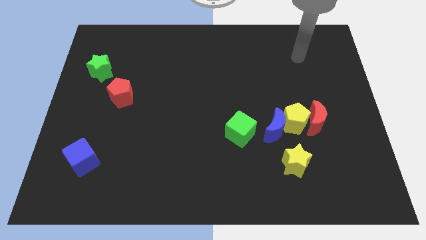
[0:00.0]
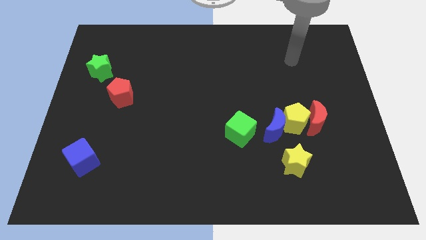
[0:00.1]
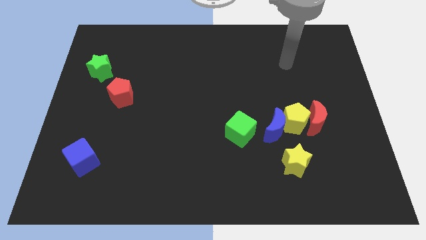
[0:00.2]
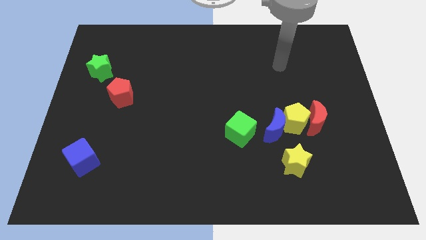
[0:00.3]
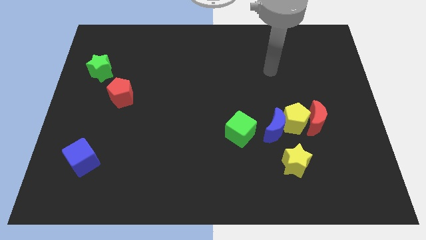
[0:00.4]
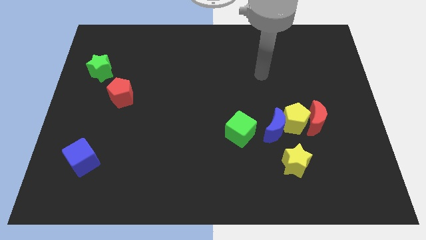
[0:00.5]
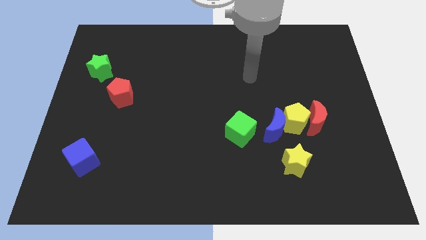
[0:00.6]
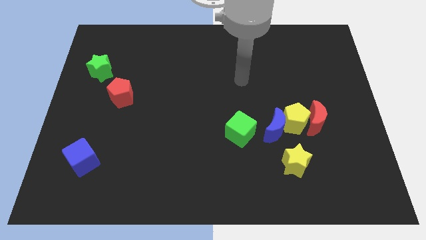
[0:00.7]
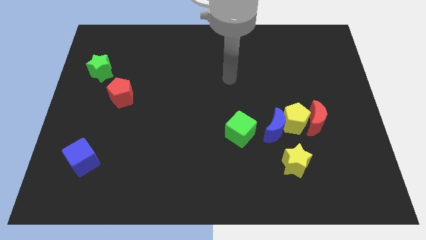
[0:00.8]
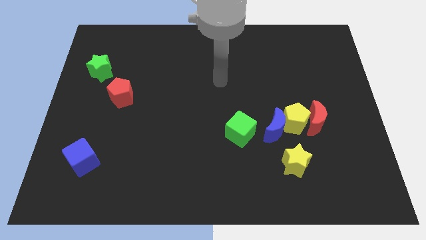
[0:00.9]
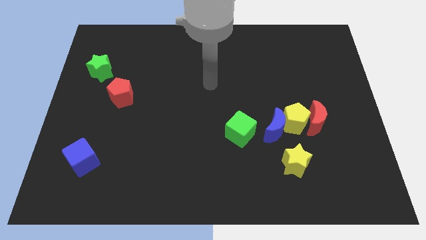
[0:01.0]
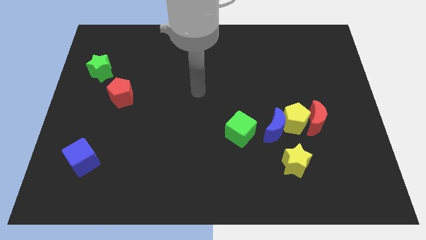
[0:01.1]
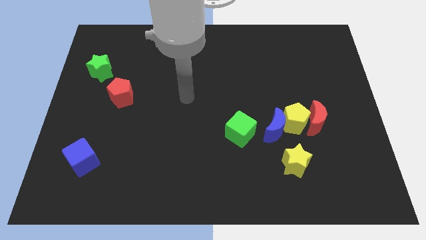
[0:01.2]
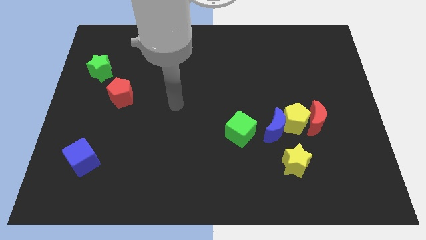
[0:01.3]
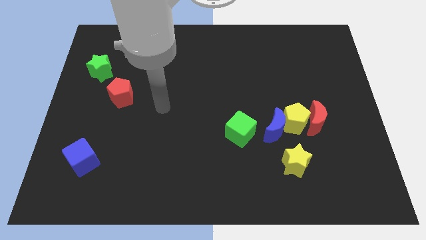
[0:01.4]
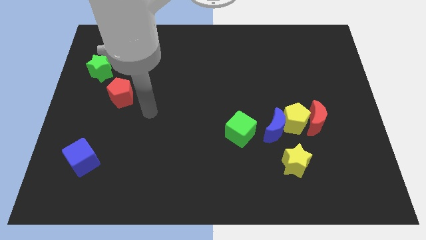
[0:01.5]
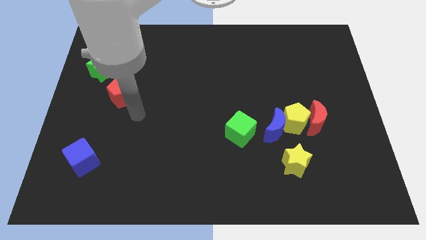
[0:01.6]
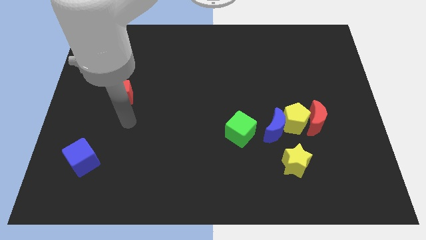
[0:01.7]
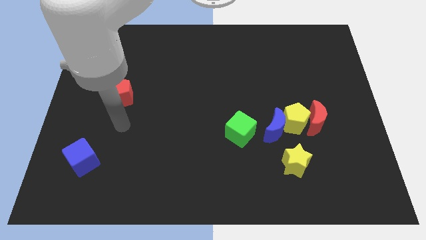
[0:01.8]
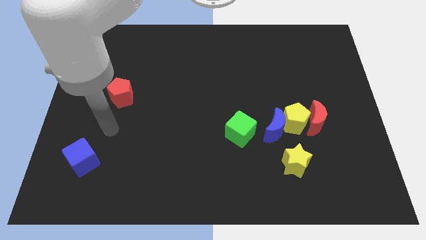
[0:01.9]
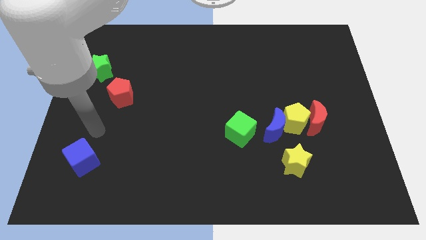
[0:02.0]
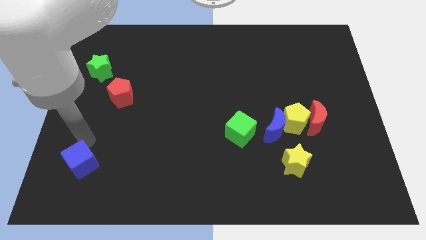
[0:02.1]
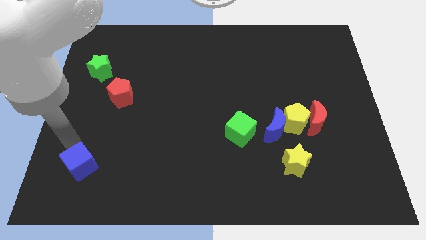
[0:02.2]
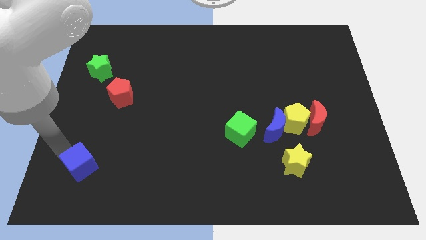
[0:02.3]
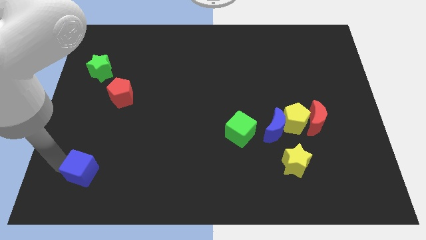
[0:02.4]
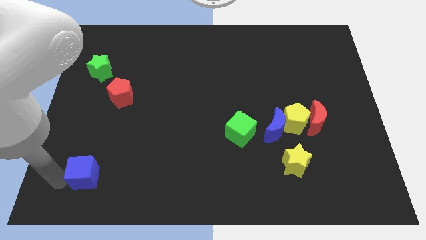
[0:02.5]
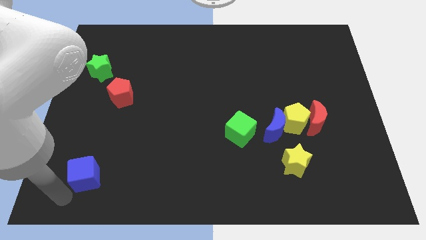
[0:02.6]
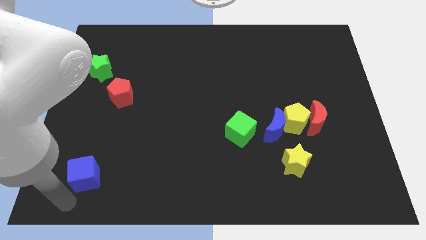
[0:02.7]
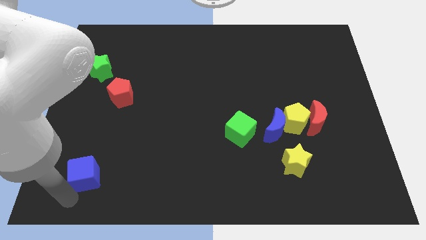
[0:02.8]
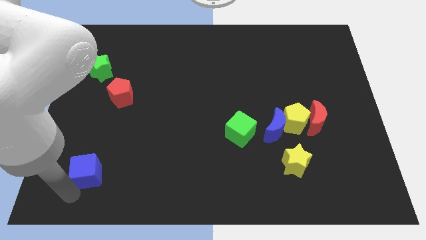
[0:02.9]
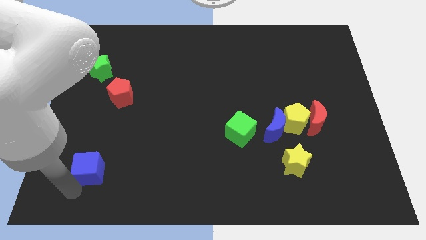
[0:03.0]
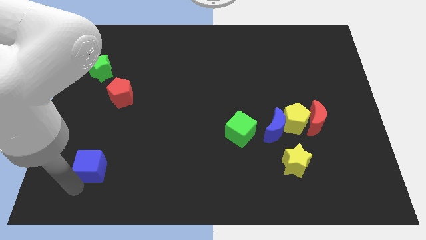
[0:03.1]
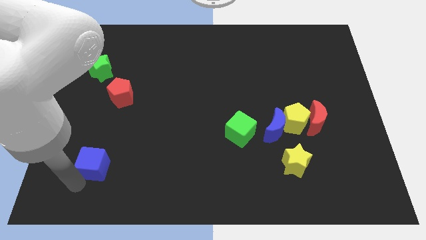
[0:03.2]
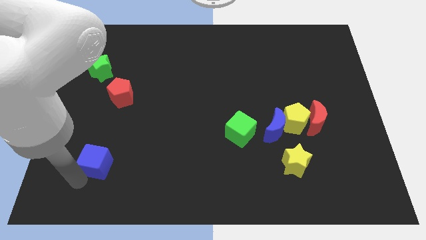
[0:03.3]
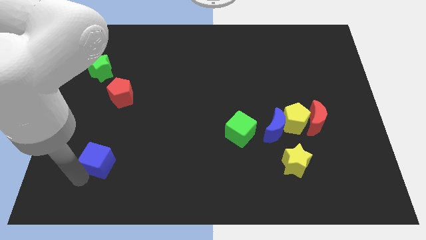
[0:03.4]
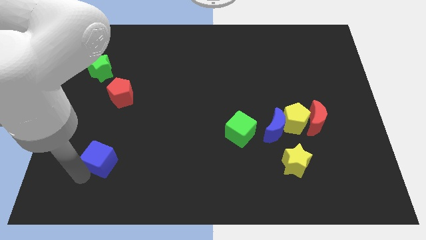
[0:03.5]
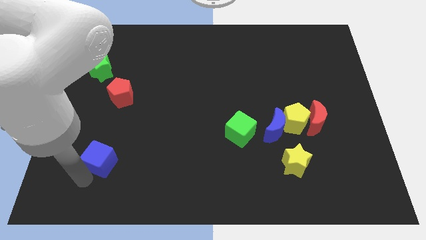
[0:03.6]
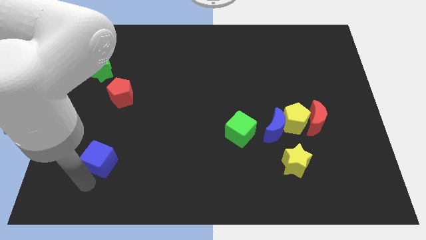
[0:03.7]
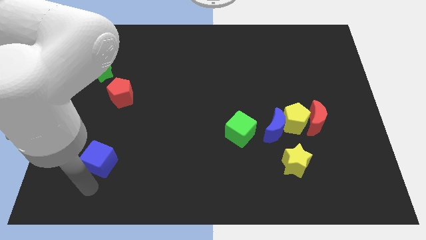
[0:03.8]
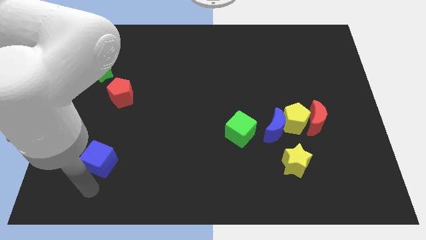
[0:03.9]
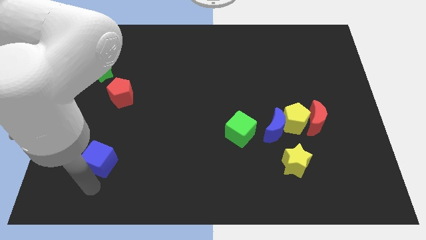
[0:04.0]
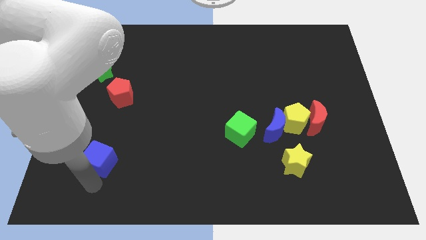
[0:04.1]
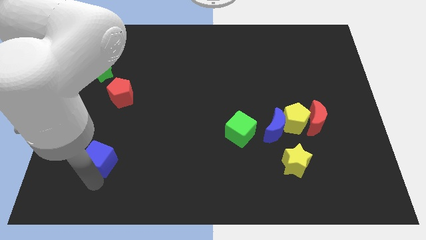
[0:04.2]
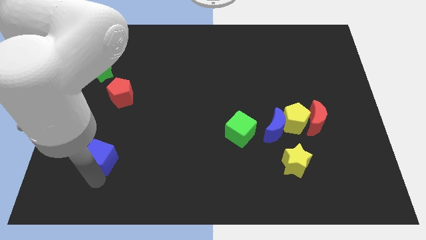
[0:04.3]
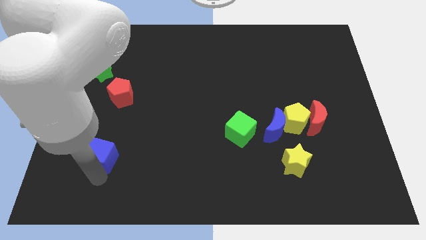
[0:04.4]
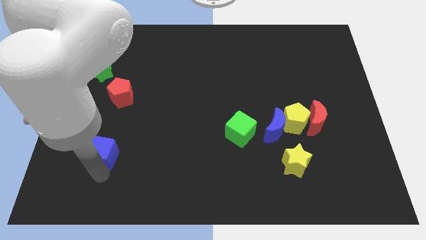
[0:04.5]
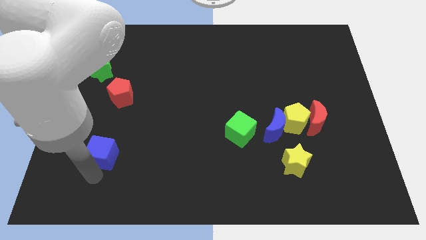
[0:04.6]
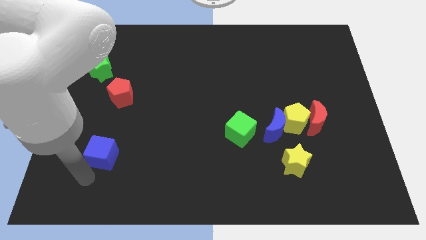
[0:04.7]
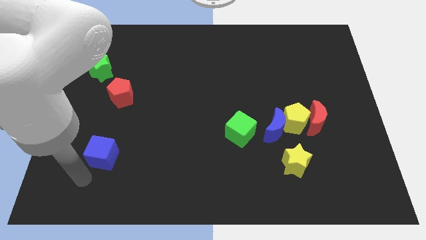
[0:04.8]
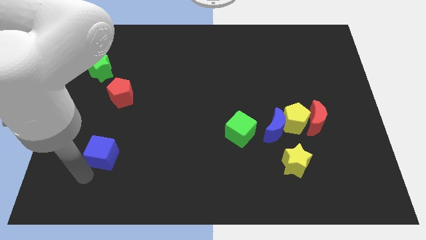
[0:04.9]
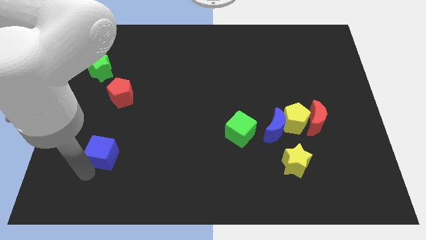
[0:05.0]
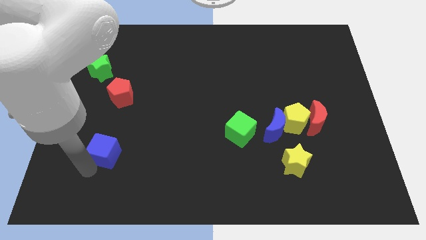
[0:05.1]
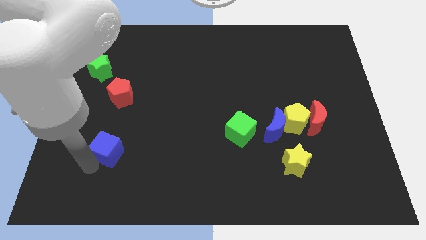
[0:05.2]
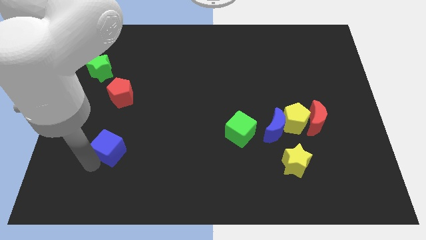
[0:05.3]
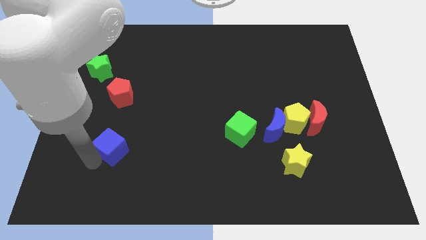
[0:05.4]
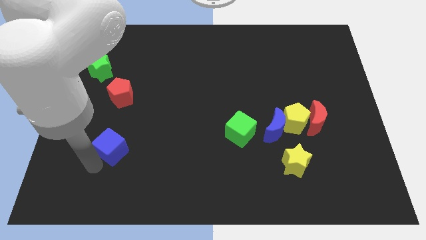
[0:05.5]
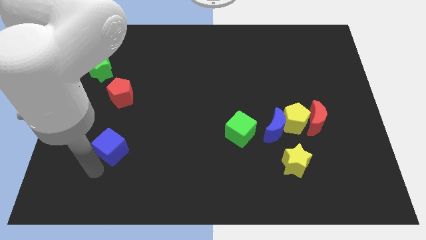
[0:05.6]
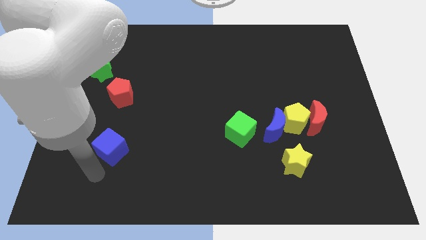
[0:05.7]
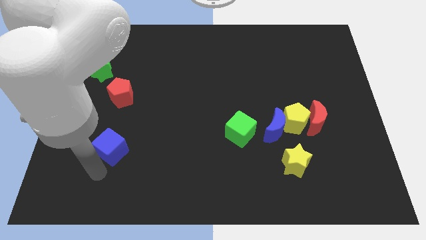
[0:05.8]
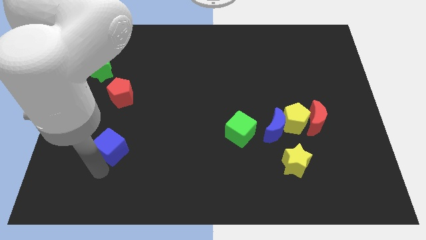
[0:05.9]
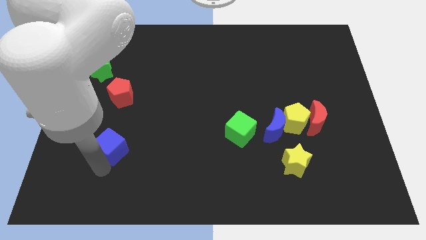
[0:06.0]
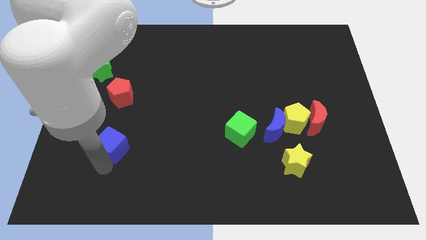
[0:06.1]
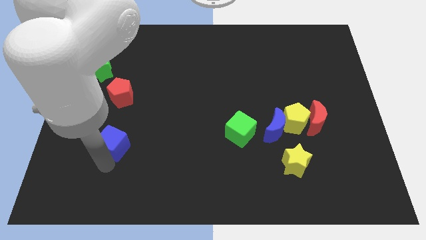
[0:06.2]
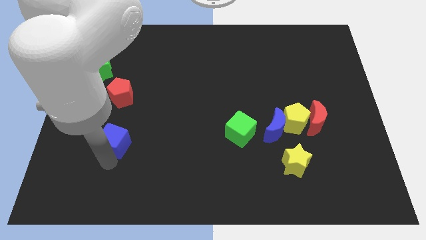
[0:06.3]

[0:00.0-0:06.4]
slightly move the blue cube upwards and then to the right

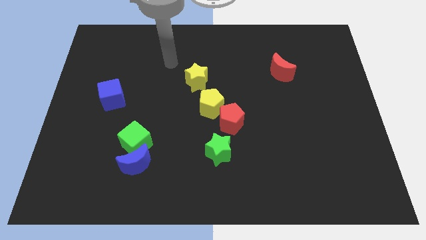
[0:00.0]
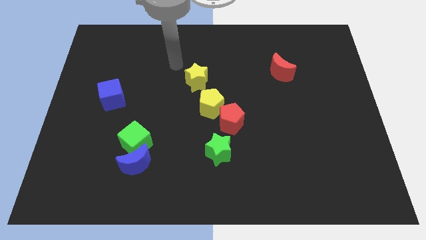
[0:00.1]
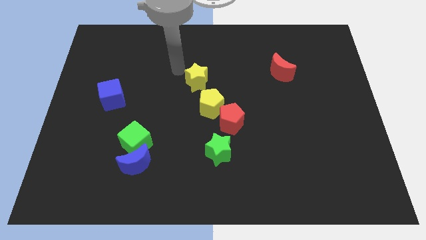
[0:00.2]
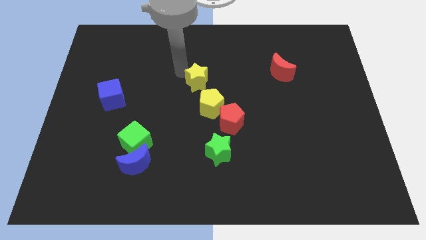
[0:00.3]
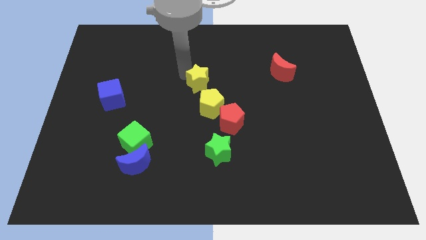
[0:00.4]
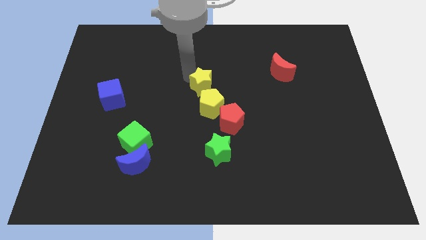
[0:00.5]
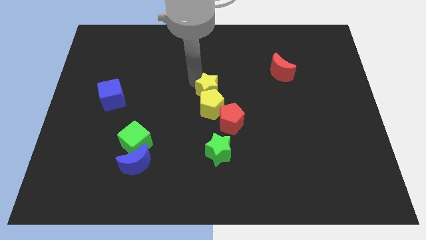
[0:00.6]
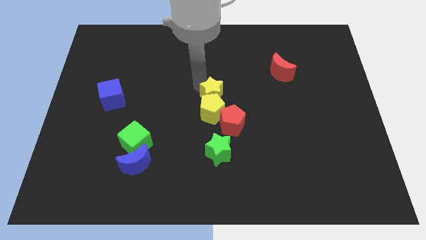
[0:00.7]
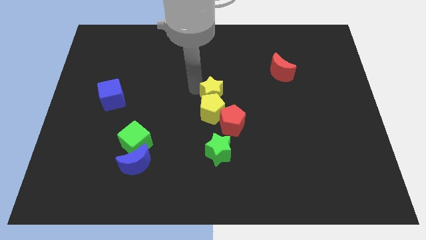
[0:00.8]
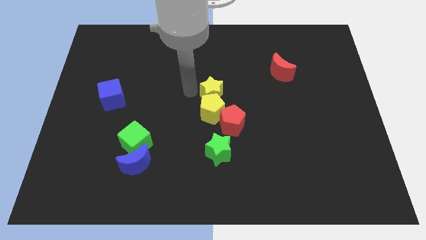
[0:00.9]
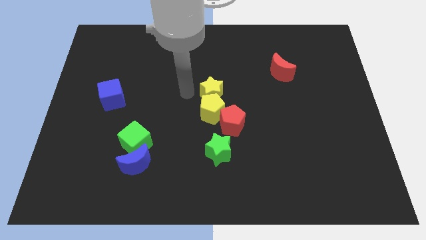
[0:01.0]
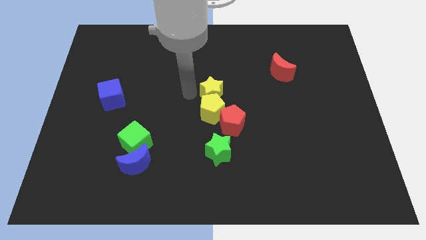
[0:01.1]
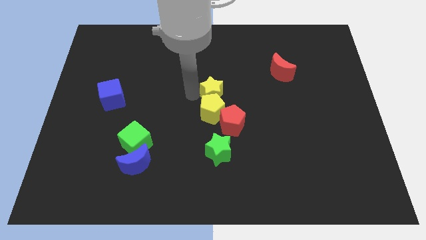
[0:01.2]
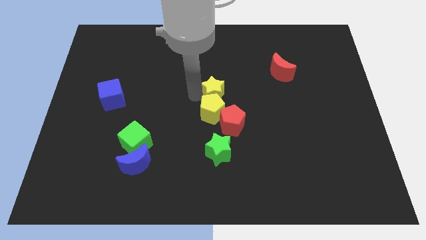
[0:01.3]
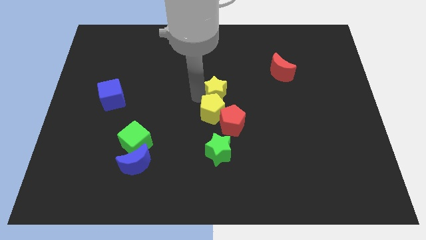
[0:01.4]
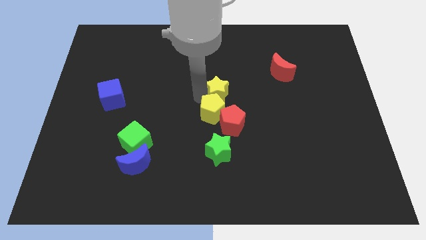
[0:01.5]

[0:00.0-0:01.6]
slightly slide the yellow star diagonally downwards and to the right

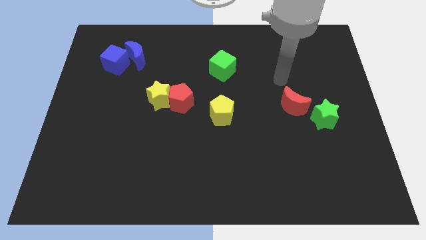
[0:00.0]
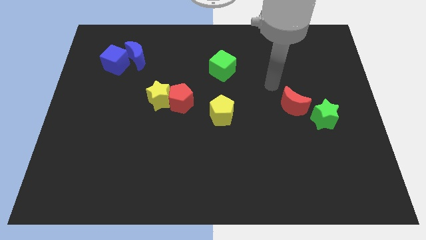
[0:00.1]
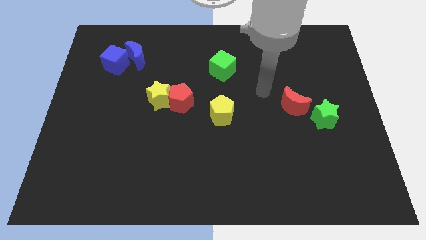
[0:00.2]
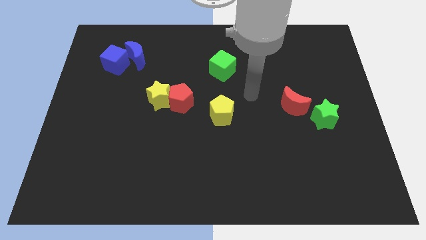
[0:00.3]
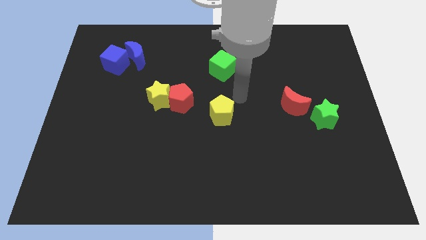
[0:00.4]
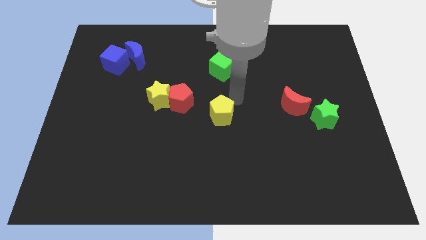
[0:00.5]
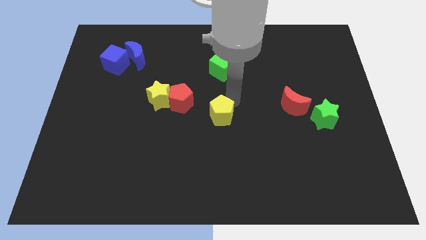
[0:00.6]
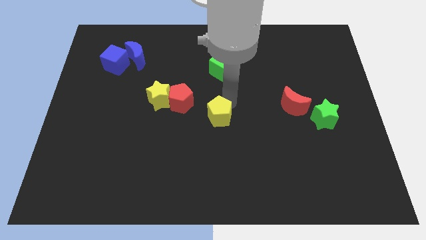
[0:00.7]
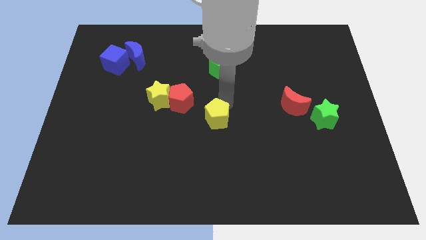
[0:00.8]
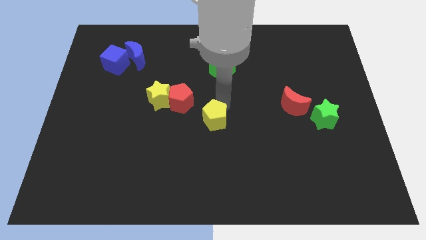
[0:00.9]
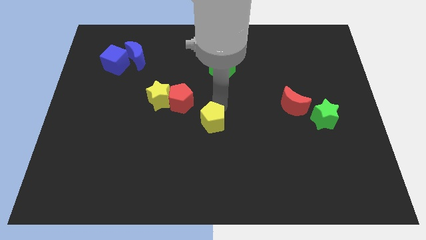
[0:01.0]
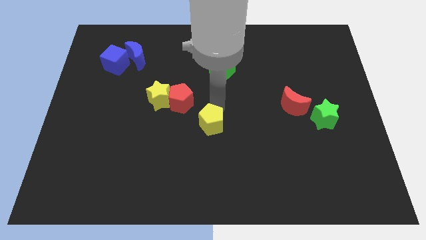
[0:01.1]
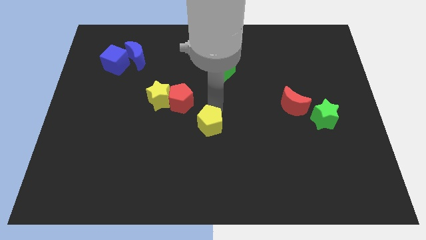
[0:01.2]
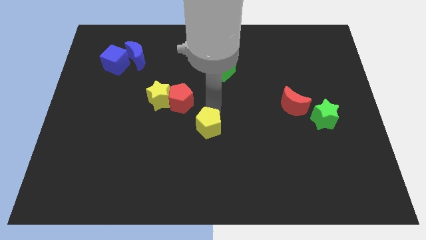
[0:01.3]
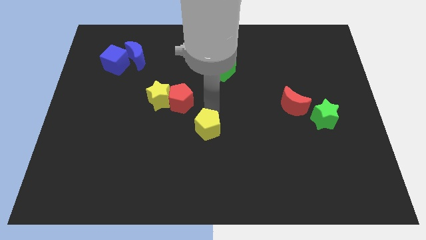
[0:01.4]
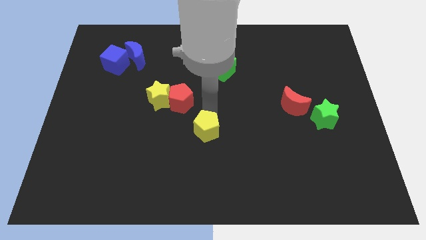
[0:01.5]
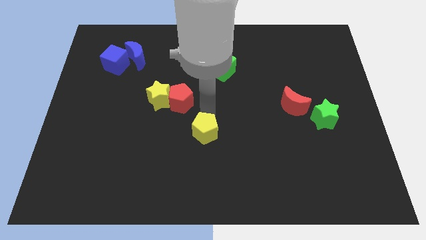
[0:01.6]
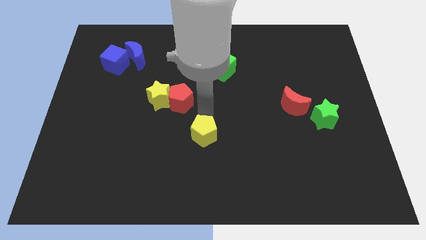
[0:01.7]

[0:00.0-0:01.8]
slightly move the yellow pentagon diagonally downwards and left
